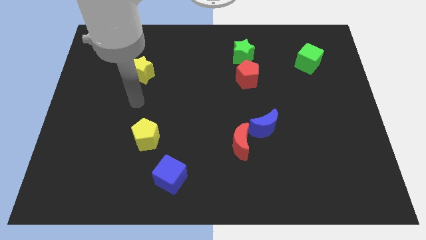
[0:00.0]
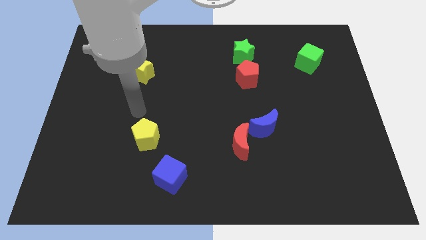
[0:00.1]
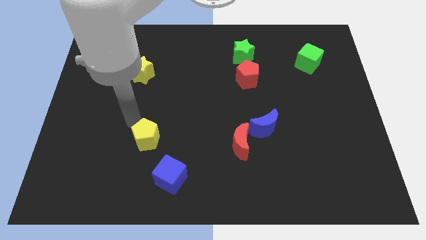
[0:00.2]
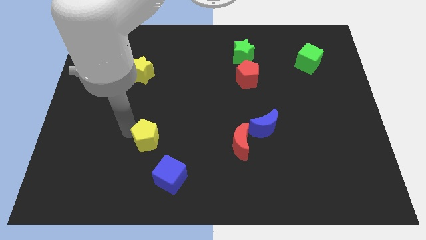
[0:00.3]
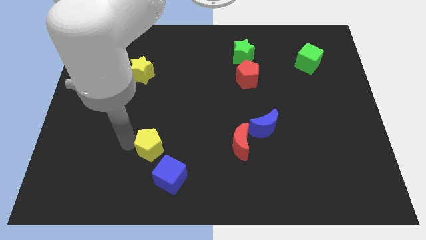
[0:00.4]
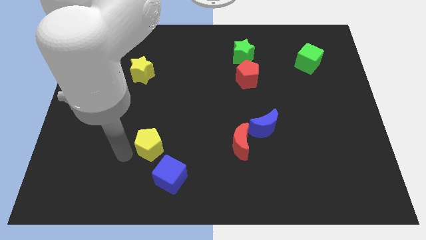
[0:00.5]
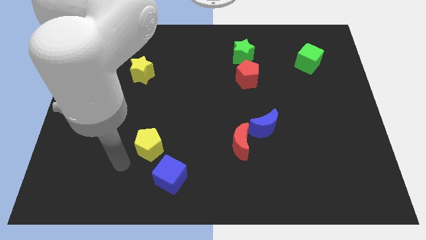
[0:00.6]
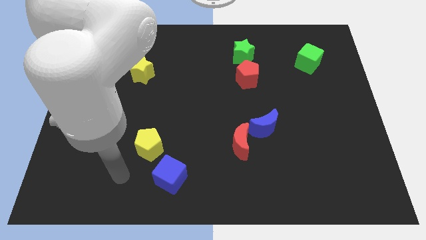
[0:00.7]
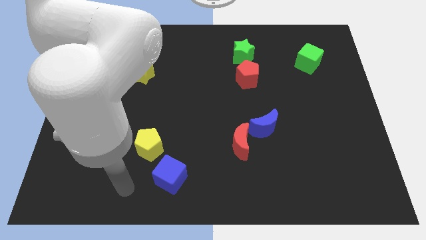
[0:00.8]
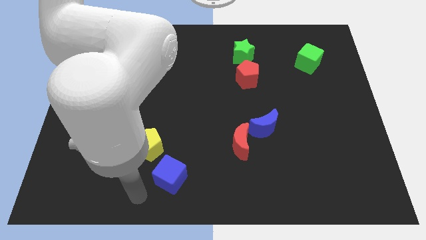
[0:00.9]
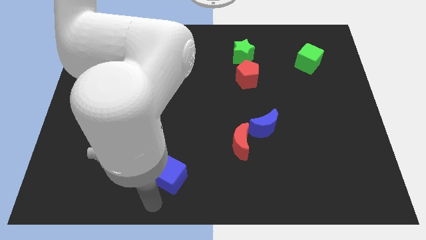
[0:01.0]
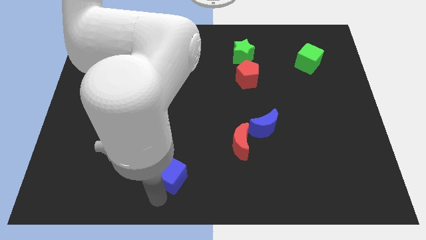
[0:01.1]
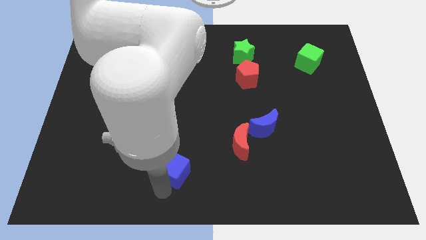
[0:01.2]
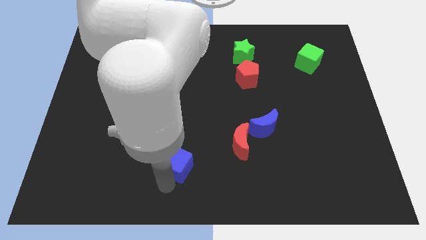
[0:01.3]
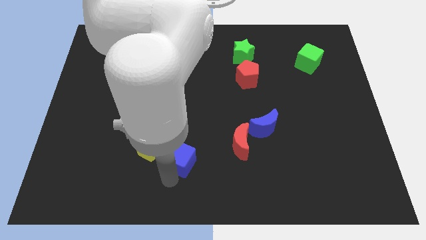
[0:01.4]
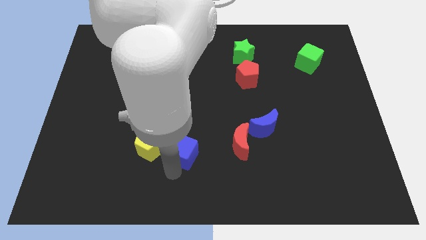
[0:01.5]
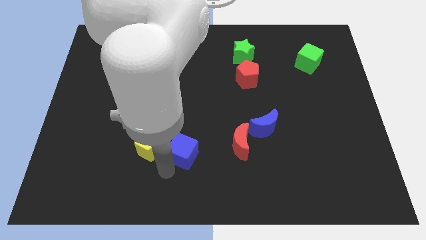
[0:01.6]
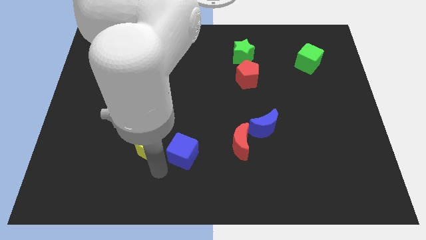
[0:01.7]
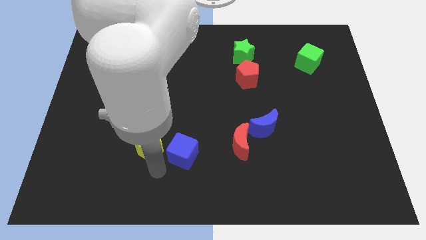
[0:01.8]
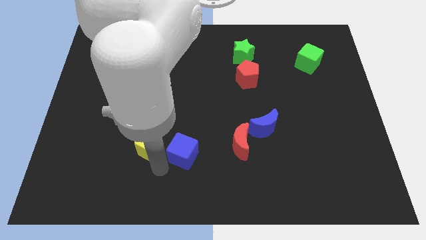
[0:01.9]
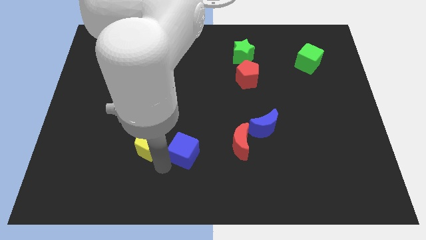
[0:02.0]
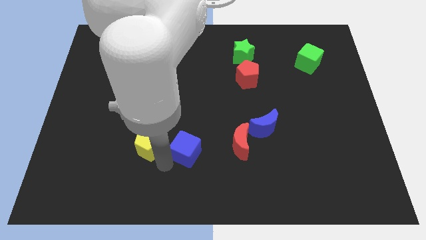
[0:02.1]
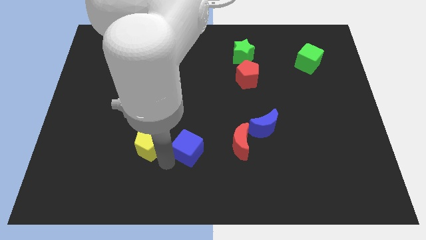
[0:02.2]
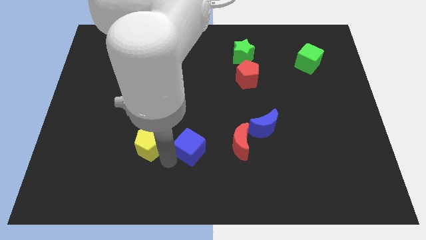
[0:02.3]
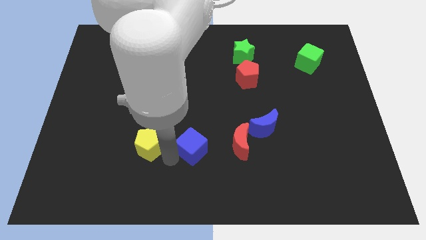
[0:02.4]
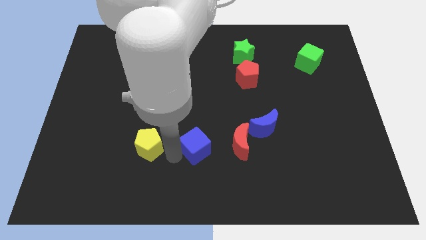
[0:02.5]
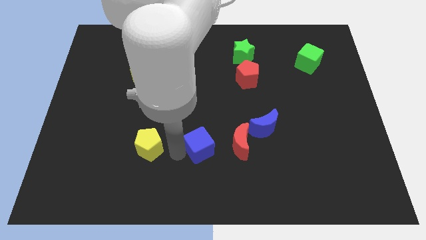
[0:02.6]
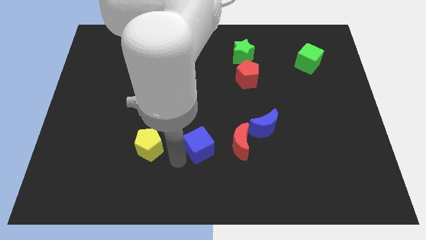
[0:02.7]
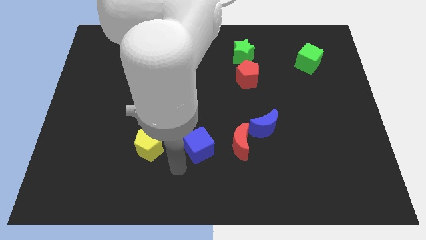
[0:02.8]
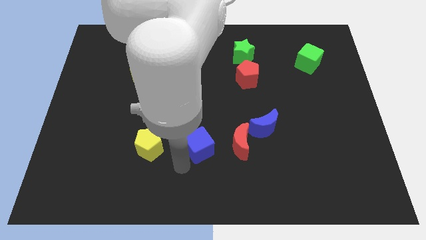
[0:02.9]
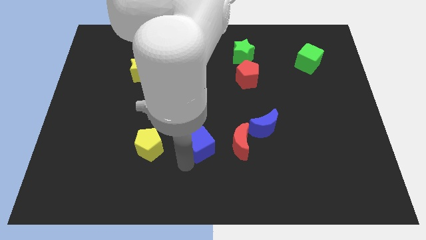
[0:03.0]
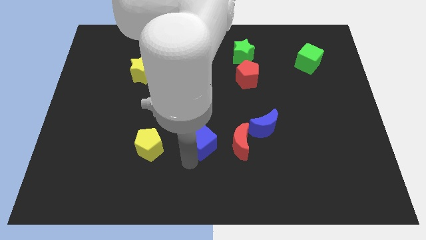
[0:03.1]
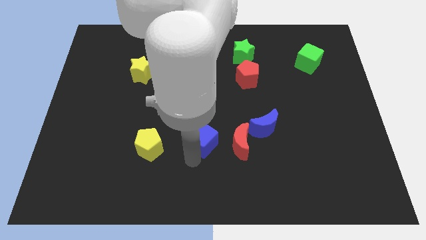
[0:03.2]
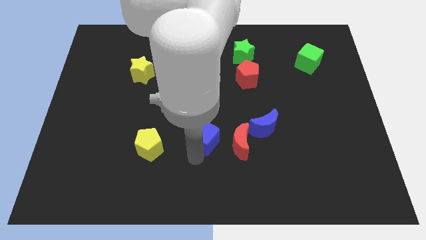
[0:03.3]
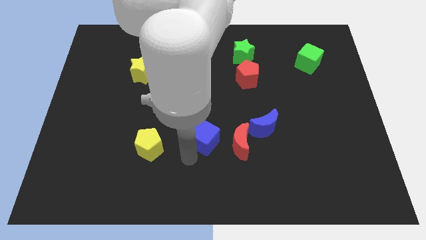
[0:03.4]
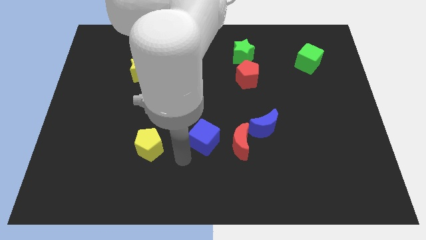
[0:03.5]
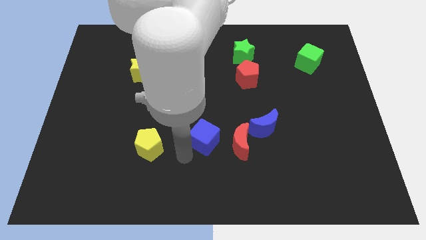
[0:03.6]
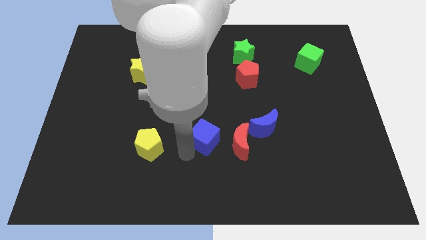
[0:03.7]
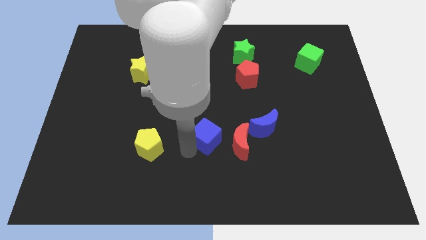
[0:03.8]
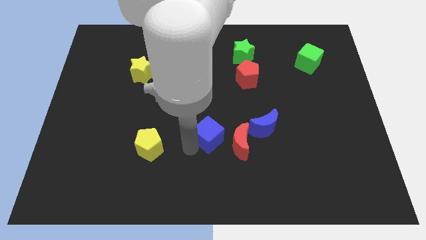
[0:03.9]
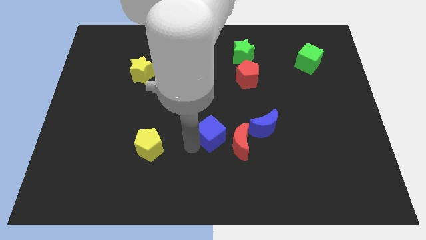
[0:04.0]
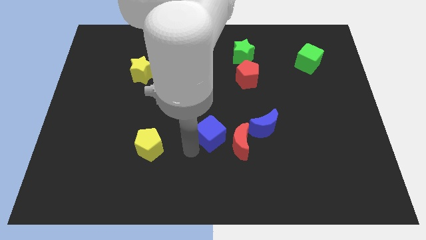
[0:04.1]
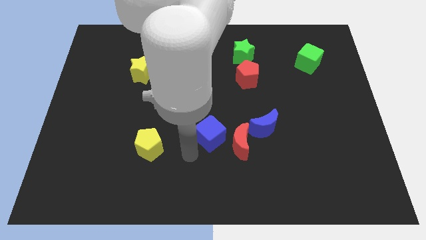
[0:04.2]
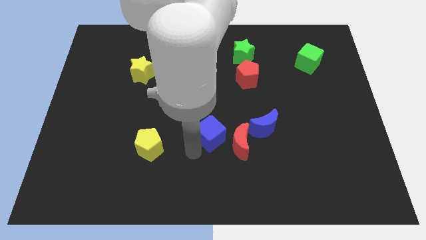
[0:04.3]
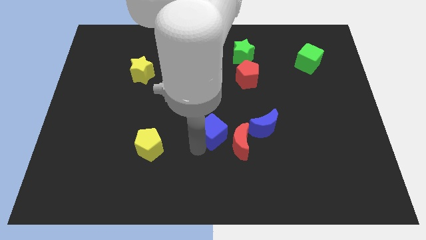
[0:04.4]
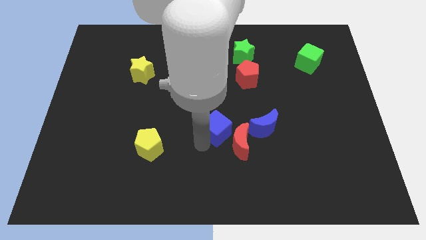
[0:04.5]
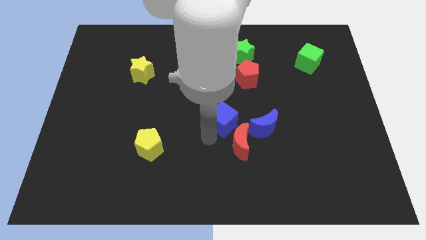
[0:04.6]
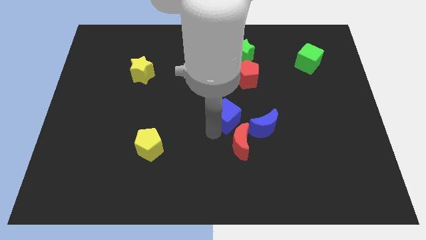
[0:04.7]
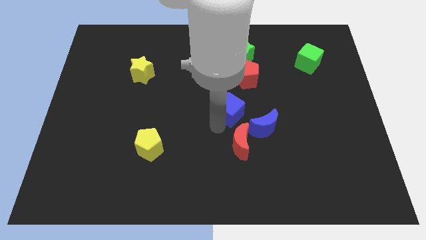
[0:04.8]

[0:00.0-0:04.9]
slide the blue cube up and to the right diagonally

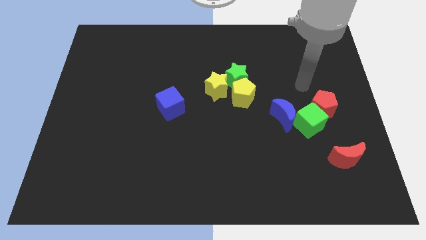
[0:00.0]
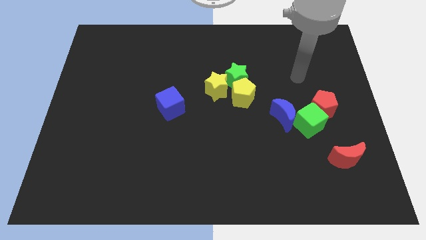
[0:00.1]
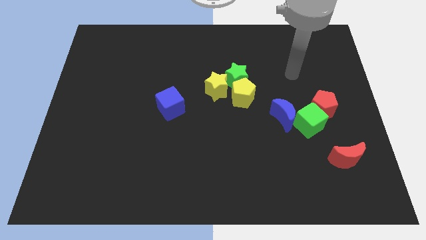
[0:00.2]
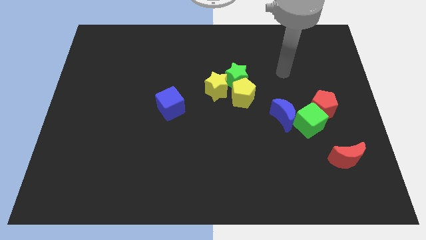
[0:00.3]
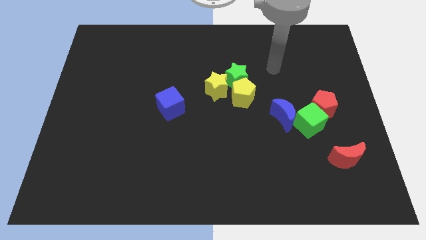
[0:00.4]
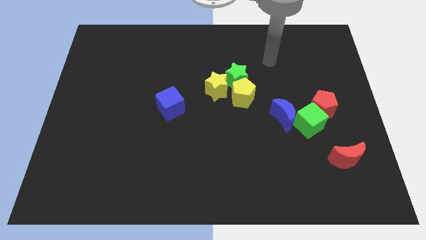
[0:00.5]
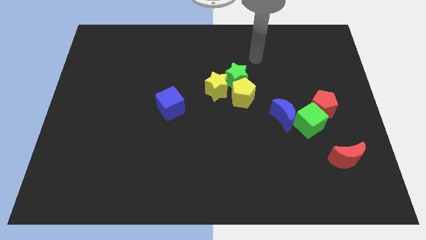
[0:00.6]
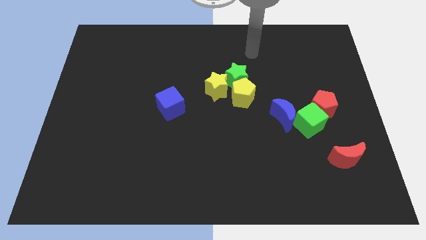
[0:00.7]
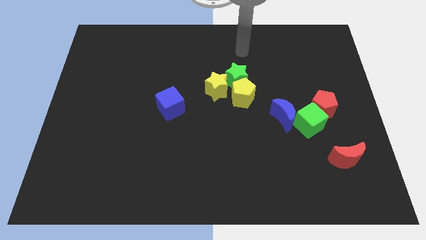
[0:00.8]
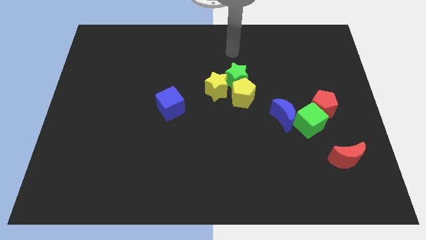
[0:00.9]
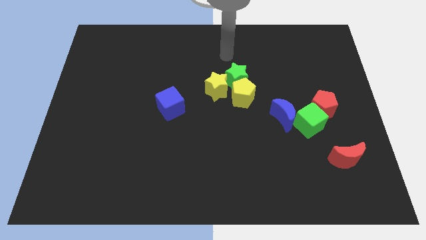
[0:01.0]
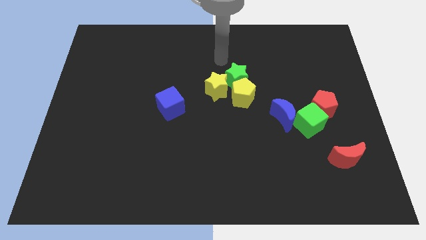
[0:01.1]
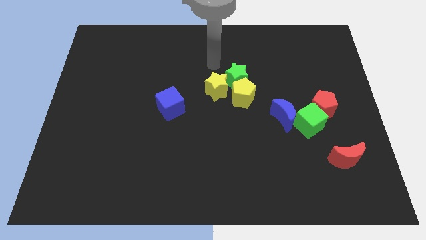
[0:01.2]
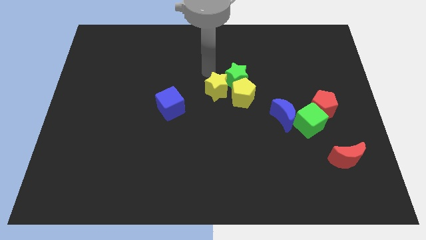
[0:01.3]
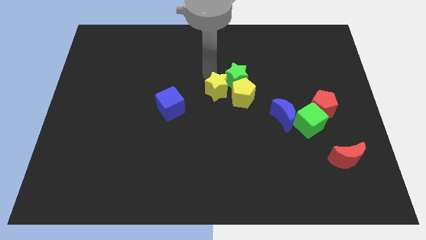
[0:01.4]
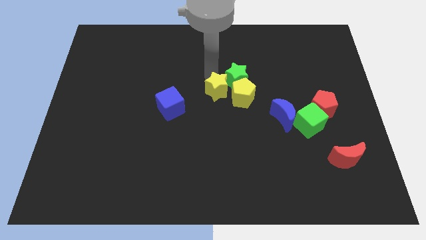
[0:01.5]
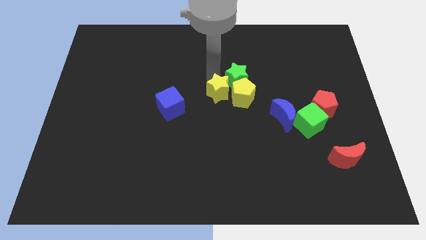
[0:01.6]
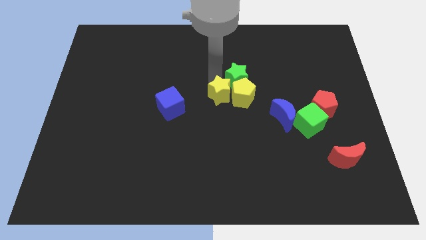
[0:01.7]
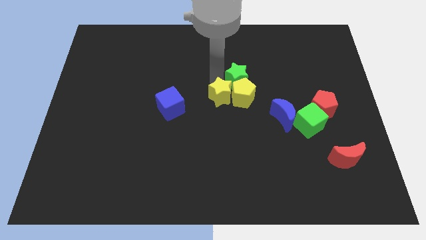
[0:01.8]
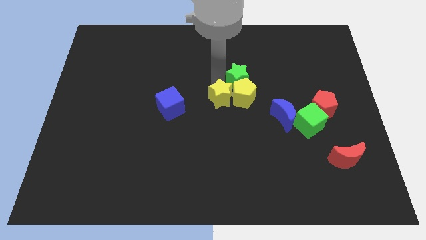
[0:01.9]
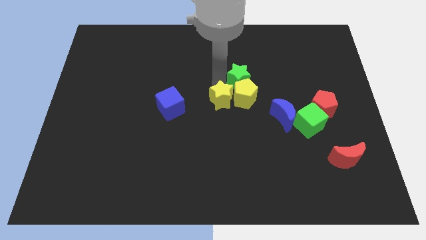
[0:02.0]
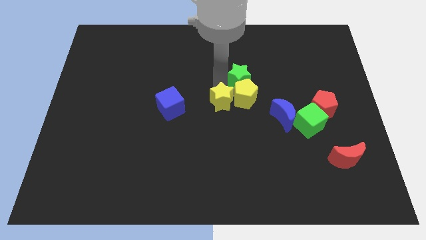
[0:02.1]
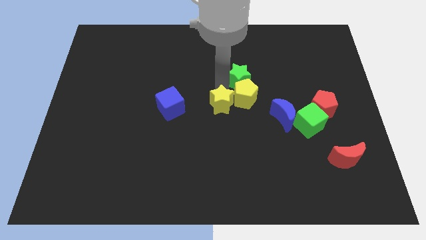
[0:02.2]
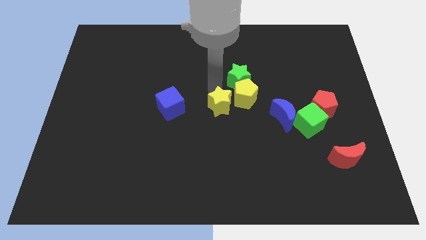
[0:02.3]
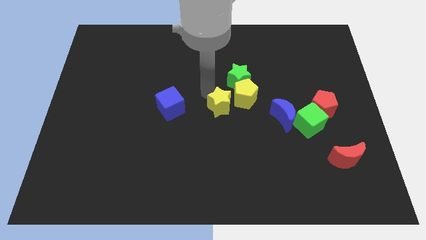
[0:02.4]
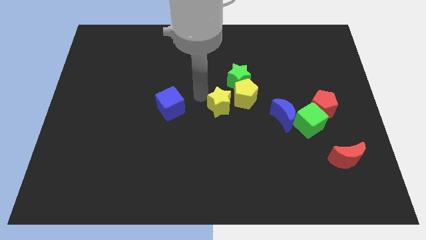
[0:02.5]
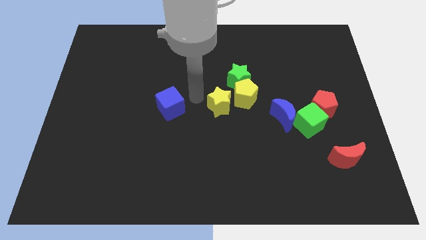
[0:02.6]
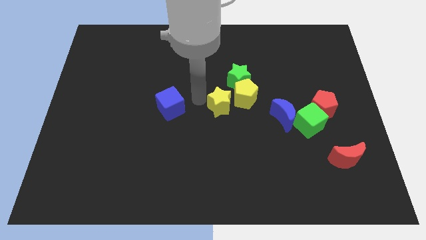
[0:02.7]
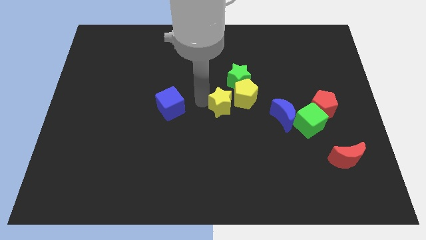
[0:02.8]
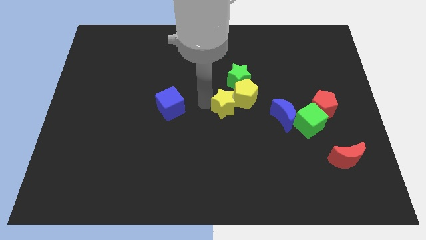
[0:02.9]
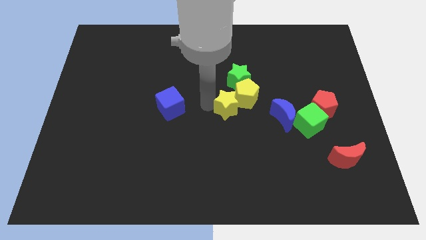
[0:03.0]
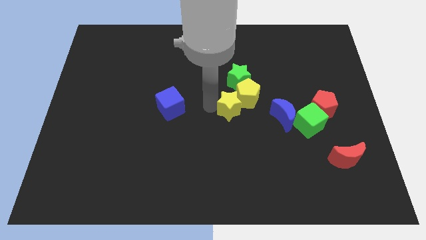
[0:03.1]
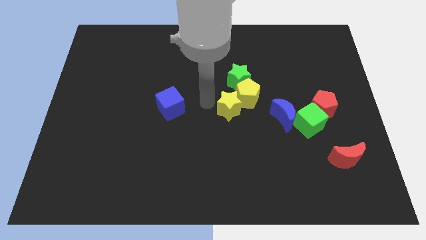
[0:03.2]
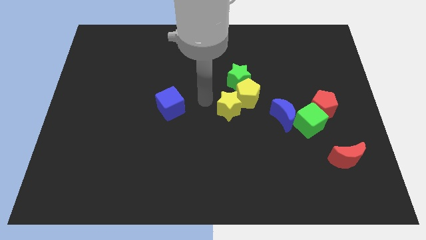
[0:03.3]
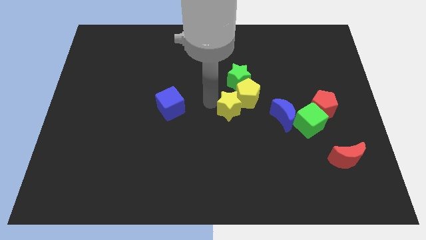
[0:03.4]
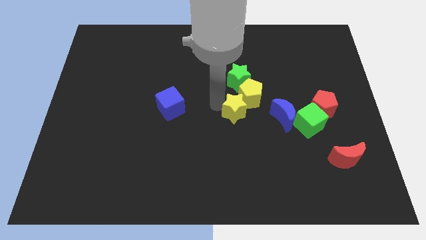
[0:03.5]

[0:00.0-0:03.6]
slightly push the yellow star down and right diagonally

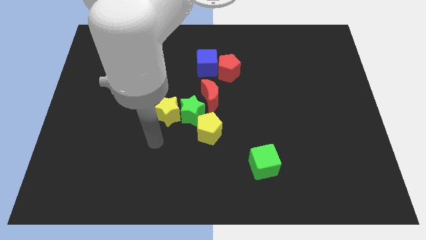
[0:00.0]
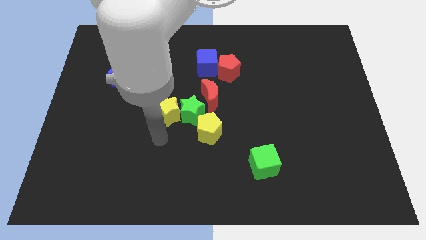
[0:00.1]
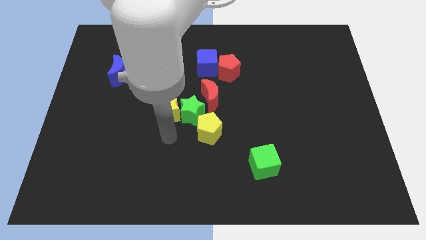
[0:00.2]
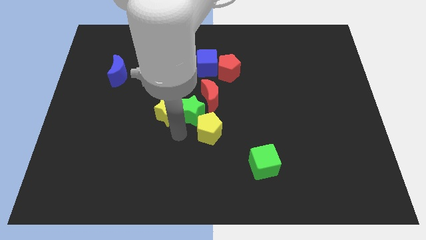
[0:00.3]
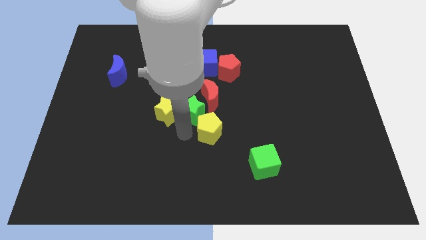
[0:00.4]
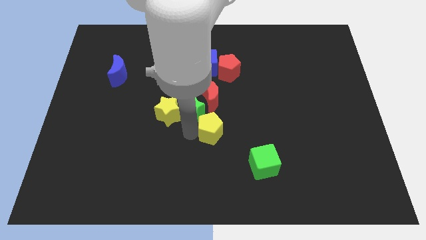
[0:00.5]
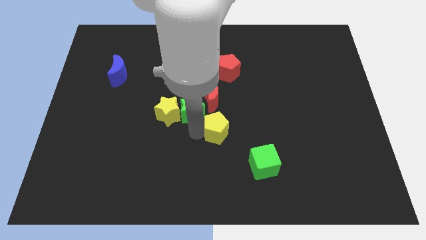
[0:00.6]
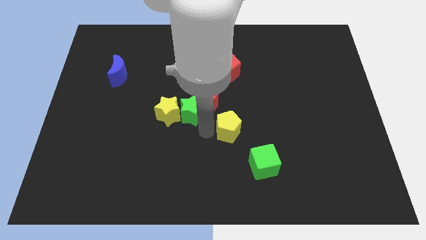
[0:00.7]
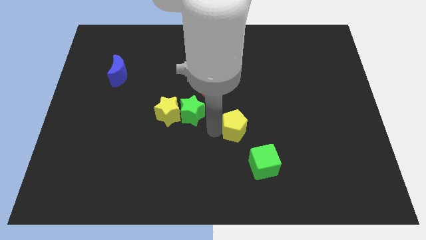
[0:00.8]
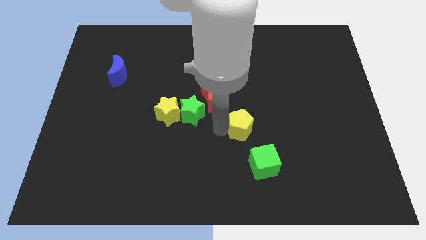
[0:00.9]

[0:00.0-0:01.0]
slightly slide the yellow pentagon right
